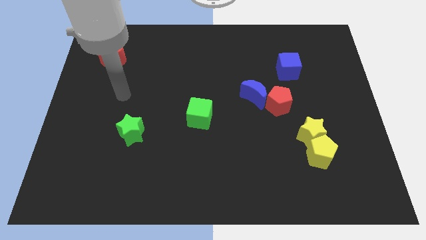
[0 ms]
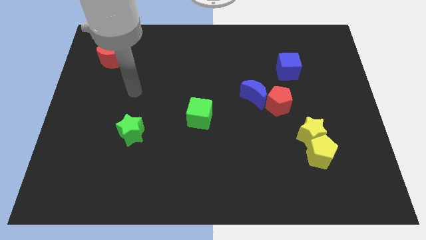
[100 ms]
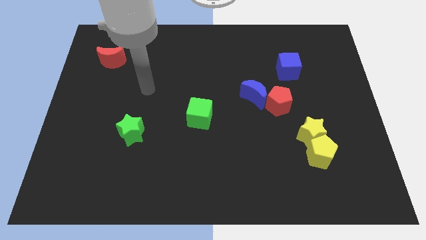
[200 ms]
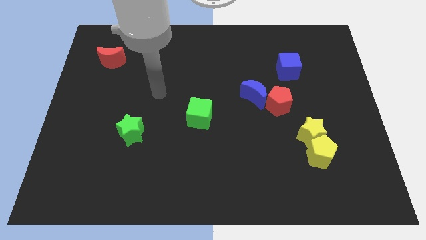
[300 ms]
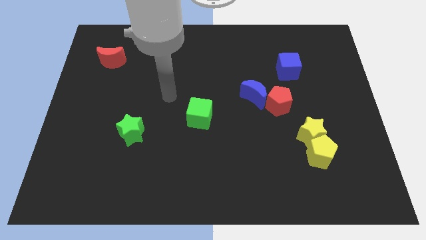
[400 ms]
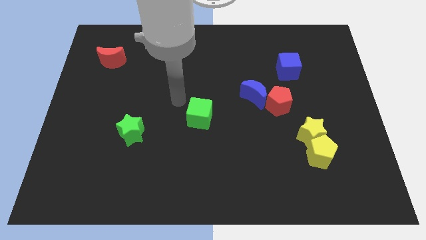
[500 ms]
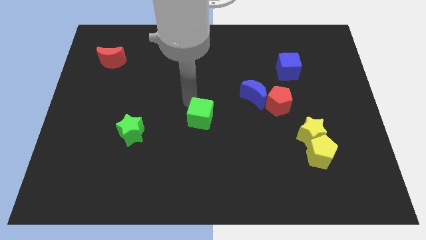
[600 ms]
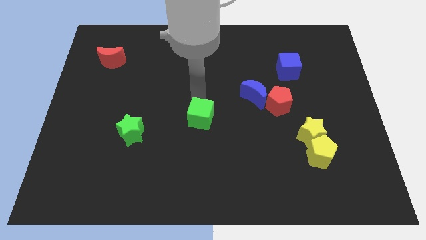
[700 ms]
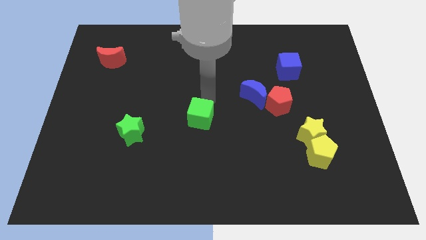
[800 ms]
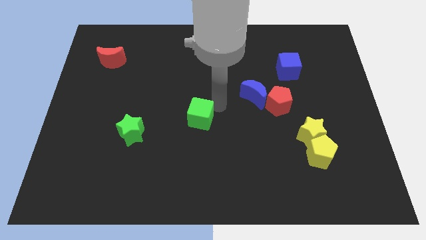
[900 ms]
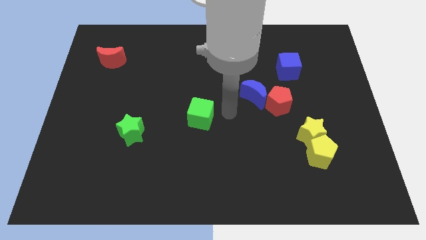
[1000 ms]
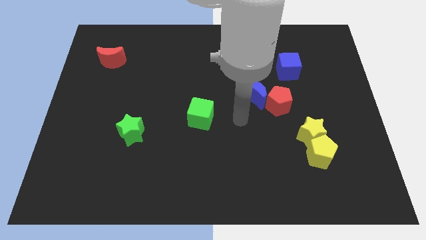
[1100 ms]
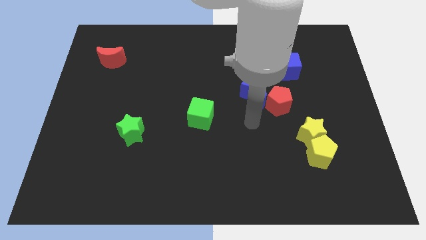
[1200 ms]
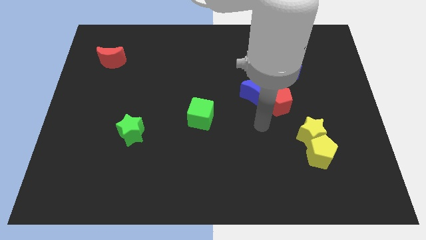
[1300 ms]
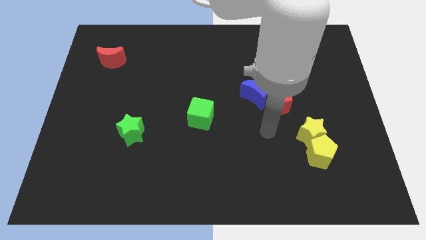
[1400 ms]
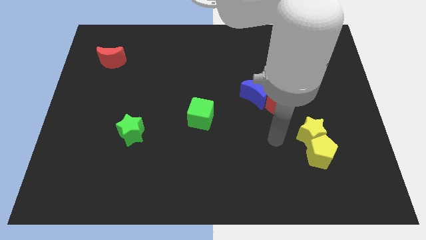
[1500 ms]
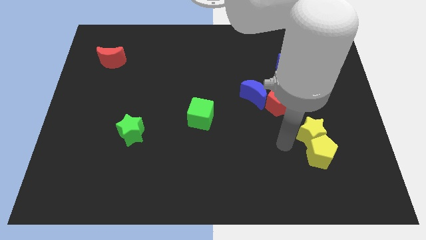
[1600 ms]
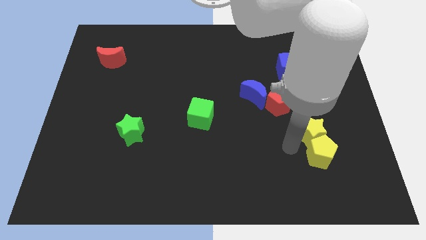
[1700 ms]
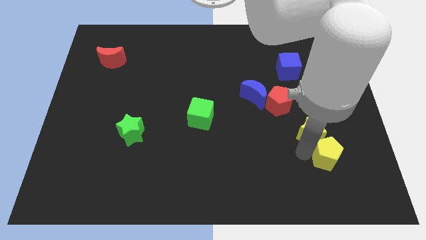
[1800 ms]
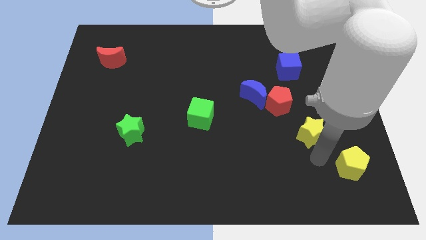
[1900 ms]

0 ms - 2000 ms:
move the yellow star away from the yellow pentagon

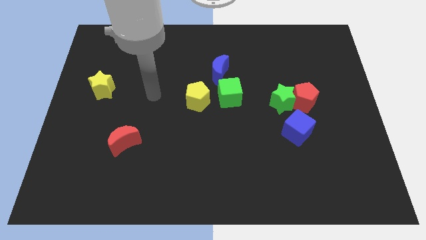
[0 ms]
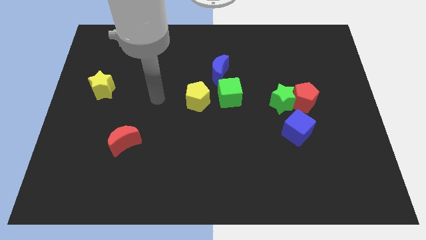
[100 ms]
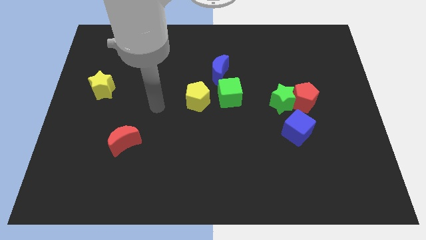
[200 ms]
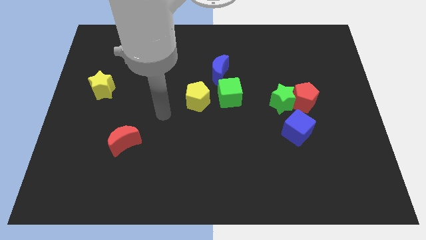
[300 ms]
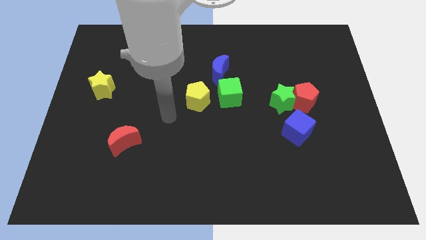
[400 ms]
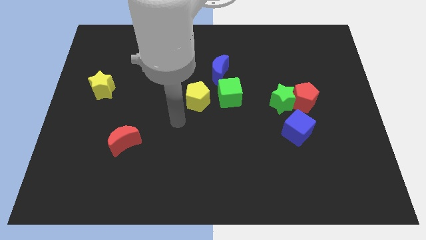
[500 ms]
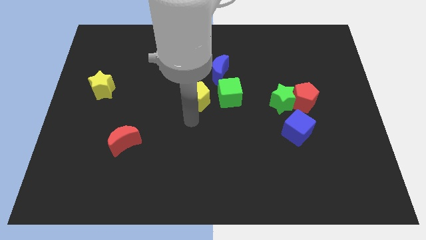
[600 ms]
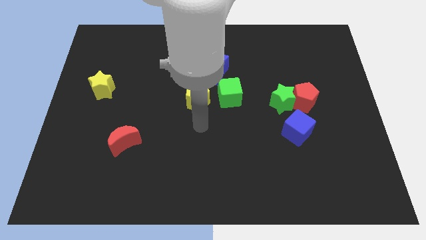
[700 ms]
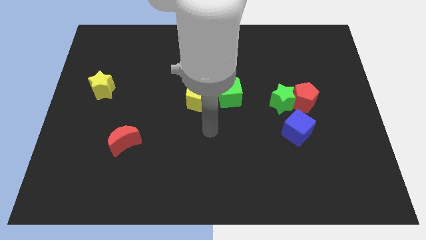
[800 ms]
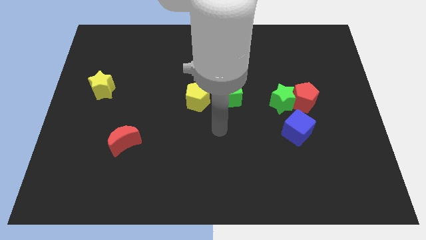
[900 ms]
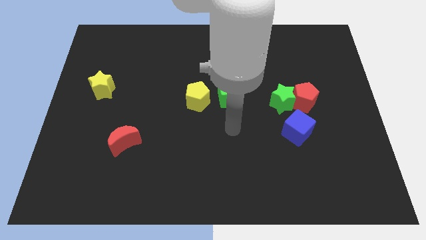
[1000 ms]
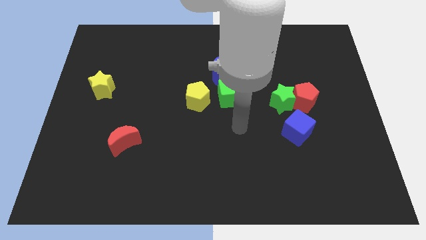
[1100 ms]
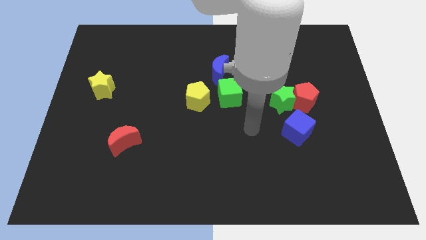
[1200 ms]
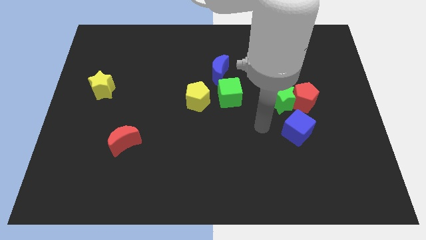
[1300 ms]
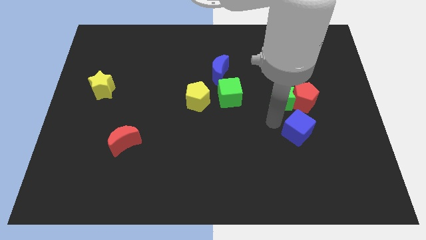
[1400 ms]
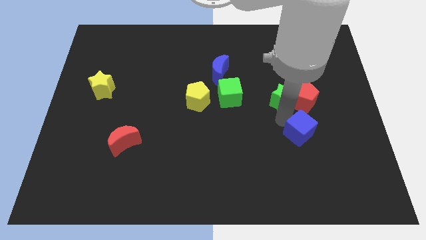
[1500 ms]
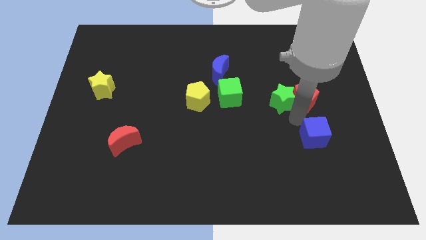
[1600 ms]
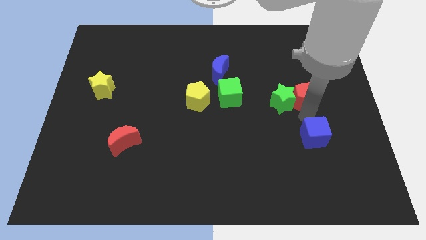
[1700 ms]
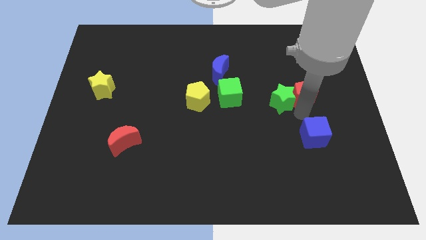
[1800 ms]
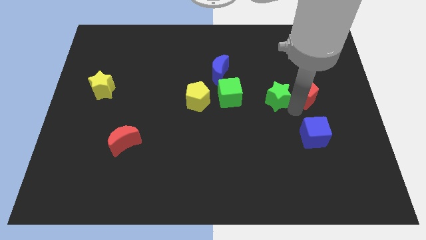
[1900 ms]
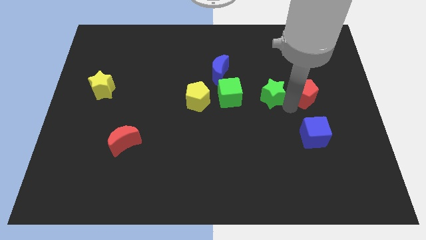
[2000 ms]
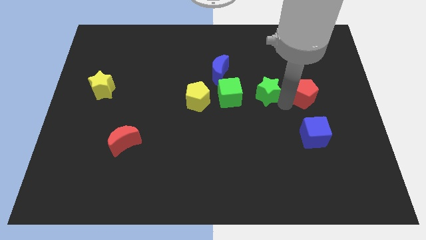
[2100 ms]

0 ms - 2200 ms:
move the green star away from the red pentagon and blue cube

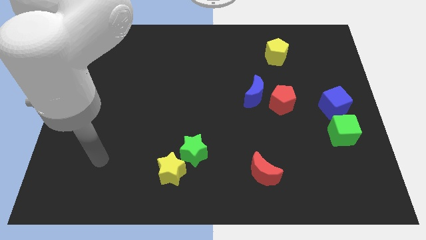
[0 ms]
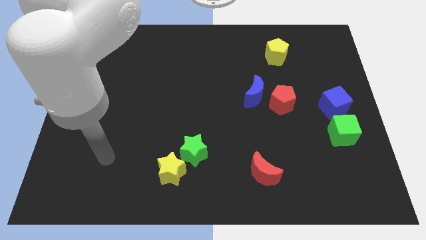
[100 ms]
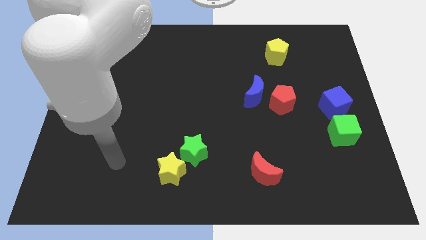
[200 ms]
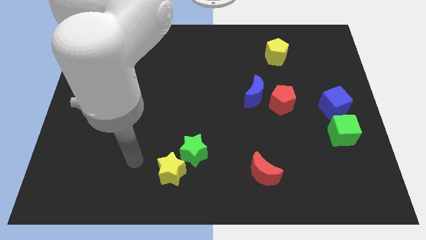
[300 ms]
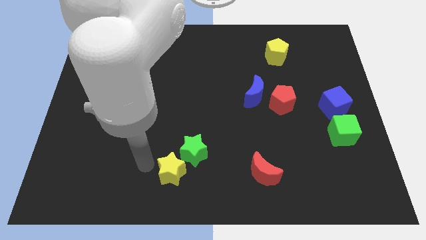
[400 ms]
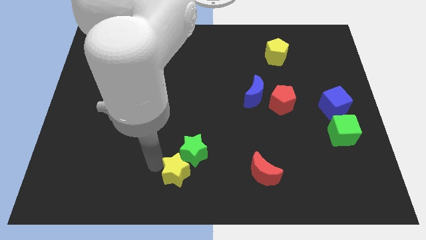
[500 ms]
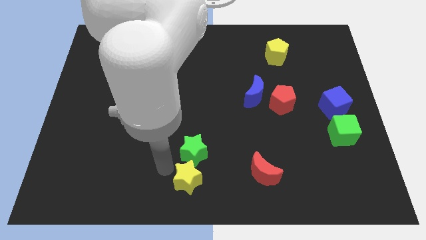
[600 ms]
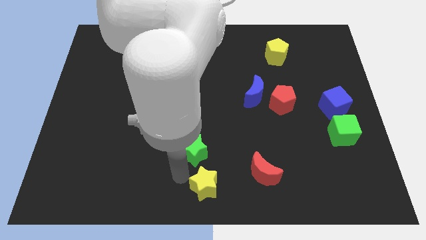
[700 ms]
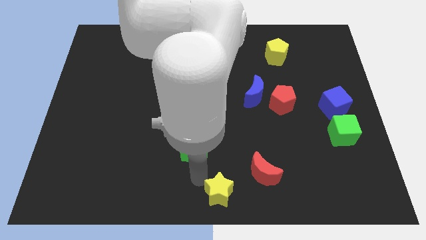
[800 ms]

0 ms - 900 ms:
separate the green star from the yellow star

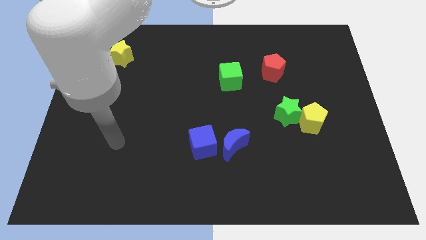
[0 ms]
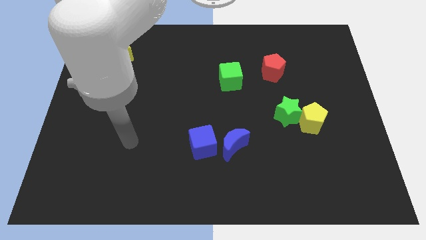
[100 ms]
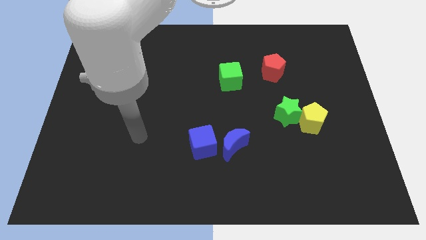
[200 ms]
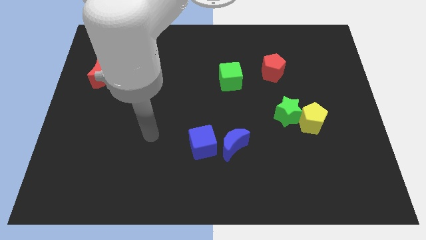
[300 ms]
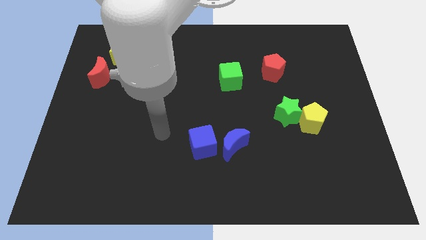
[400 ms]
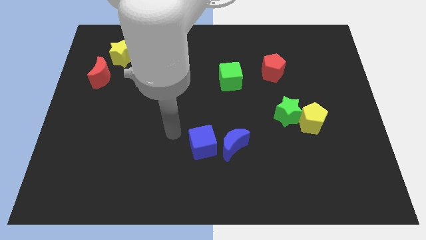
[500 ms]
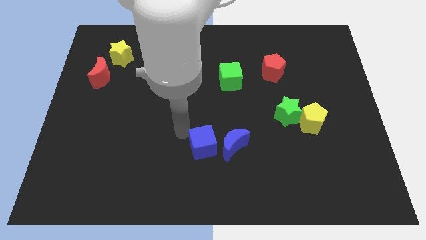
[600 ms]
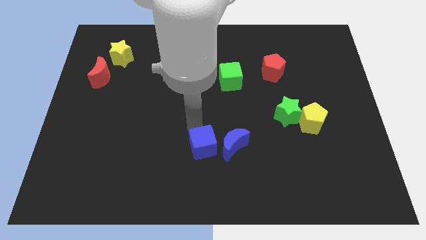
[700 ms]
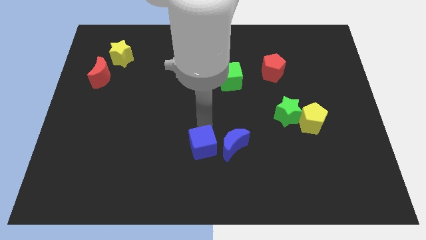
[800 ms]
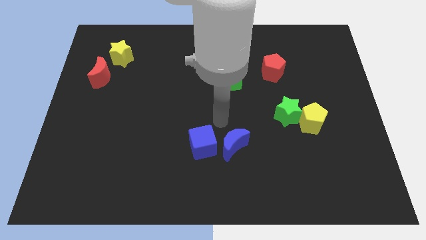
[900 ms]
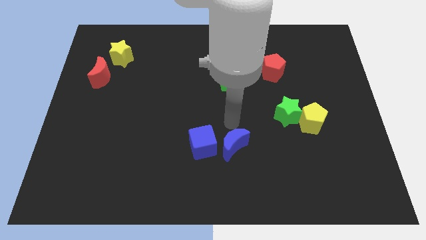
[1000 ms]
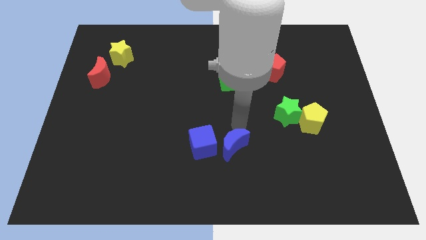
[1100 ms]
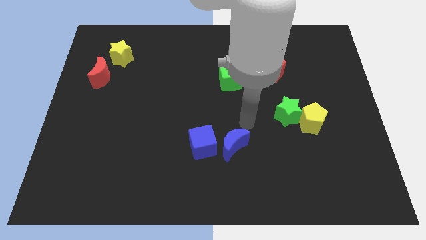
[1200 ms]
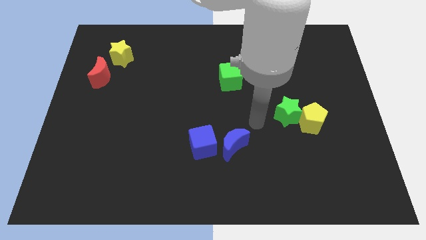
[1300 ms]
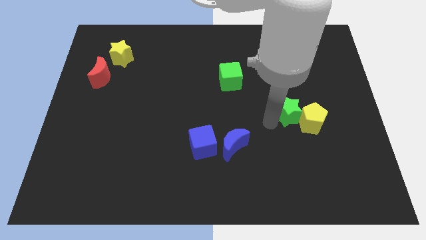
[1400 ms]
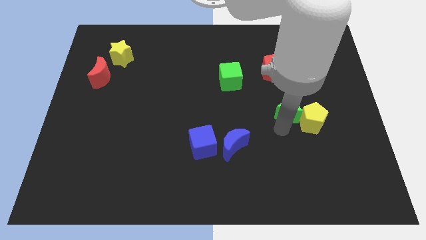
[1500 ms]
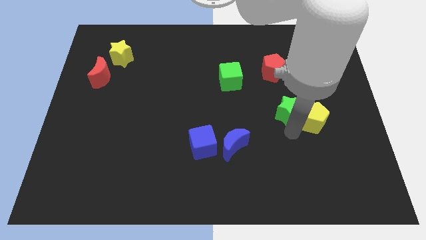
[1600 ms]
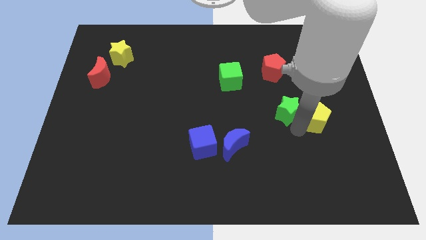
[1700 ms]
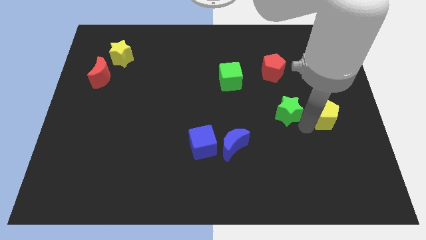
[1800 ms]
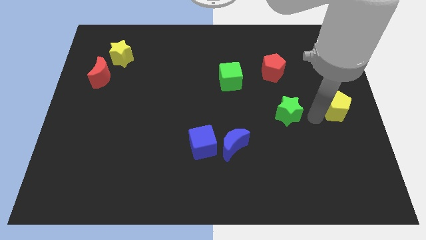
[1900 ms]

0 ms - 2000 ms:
move the green star away from the yellow pentagon

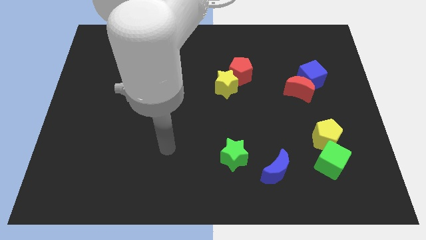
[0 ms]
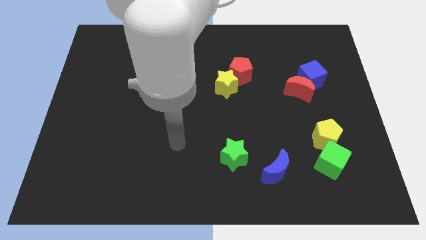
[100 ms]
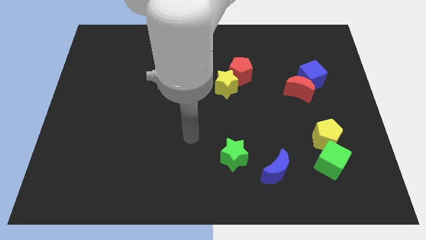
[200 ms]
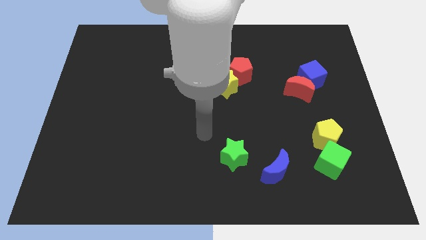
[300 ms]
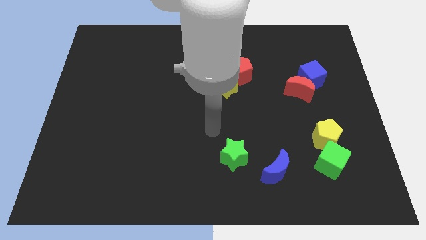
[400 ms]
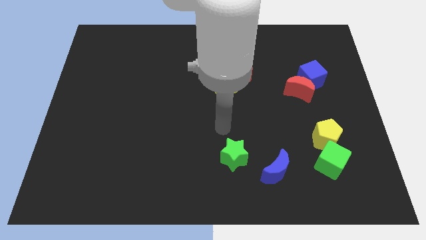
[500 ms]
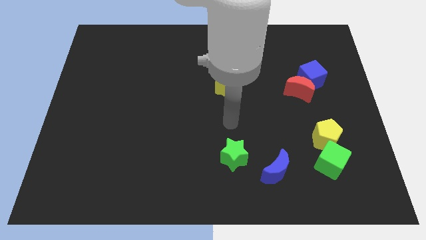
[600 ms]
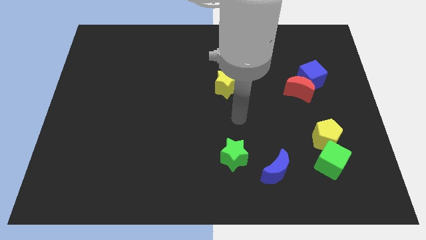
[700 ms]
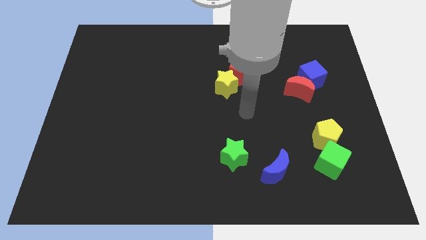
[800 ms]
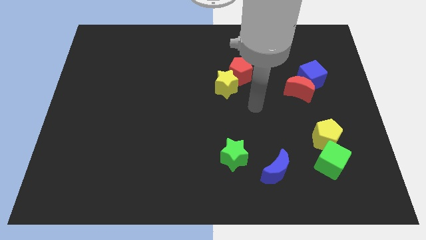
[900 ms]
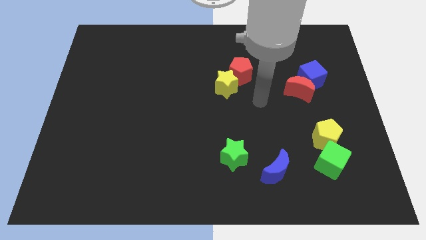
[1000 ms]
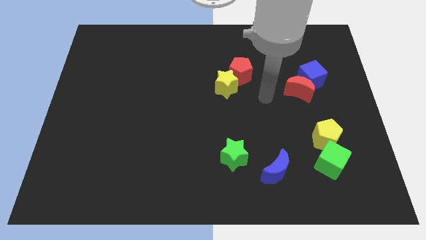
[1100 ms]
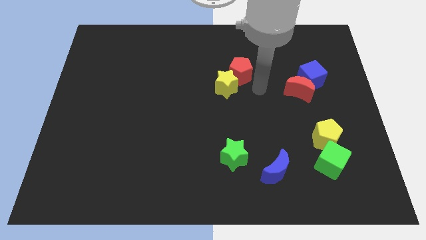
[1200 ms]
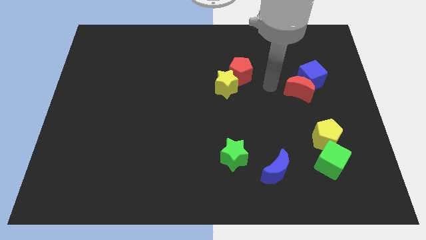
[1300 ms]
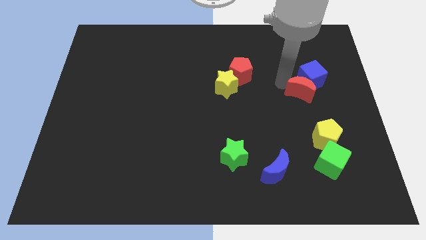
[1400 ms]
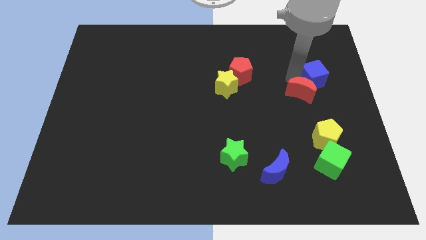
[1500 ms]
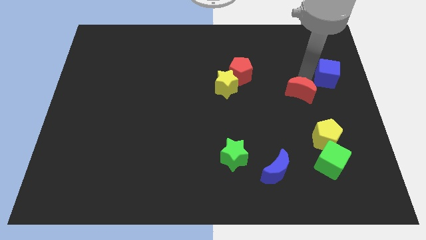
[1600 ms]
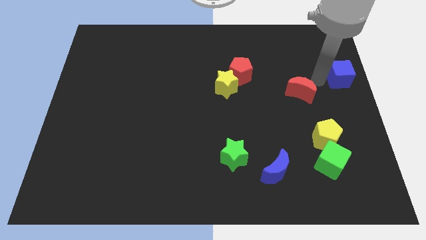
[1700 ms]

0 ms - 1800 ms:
pull the red moon apart from the blue cube

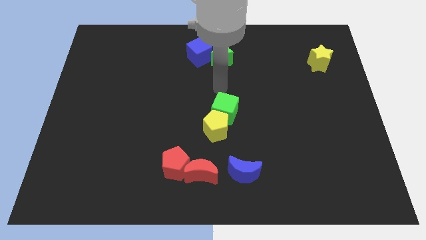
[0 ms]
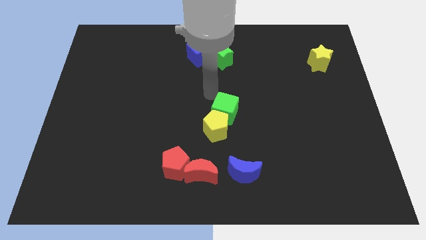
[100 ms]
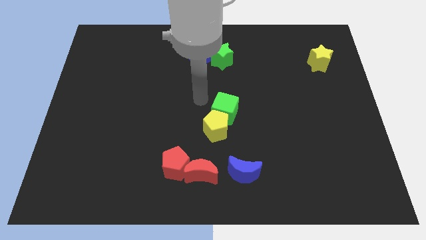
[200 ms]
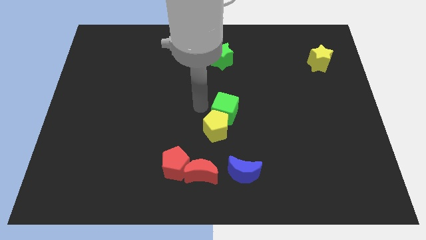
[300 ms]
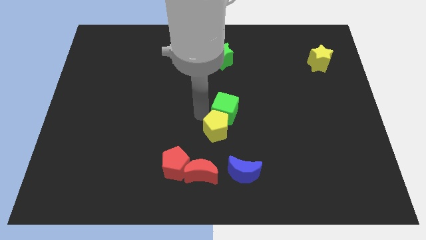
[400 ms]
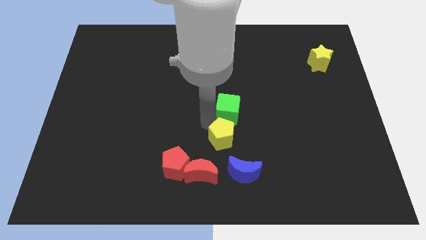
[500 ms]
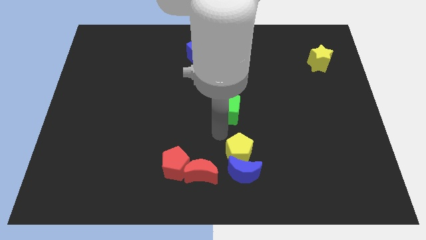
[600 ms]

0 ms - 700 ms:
pull the green cube apart from the yellow pentagon
